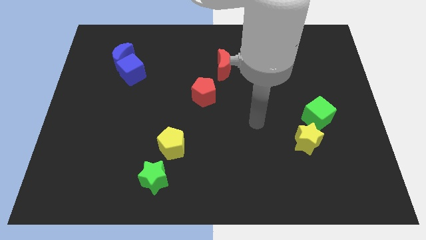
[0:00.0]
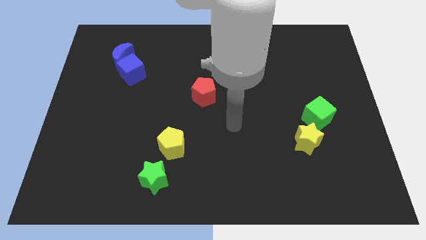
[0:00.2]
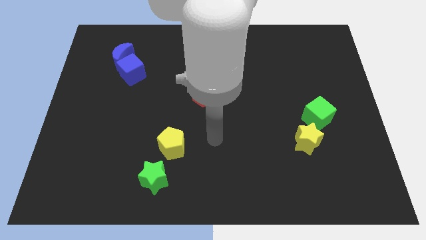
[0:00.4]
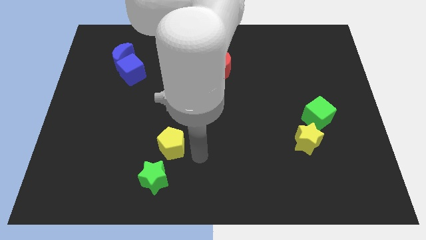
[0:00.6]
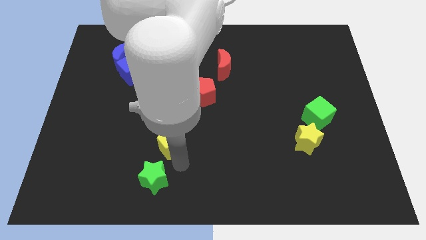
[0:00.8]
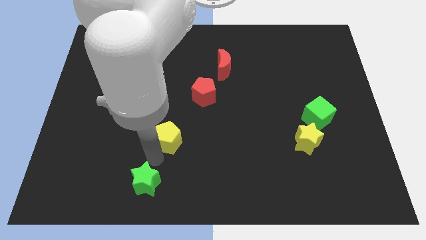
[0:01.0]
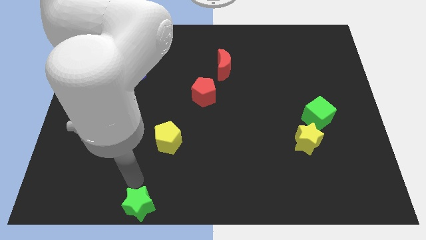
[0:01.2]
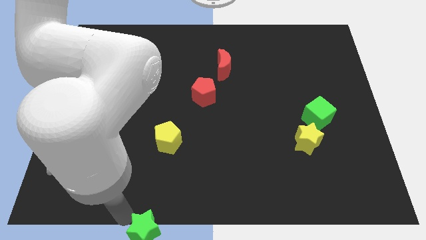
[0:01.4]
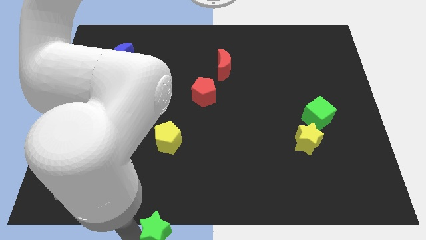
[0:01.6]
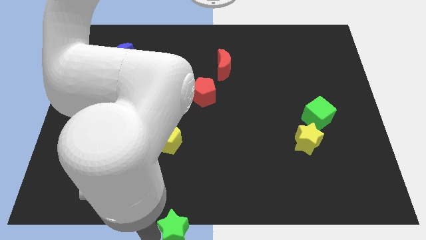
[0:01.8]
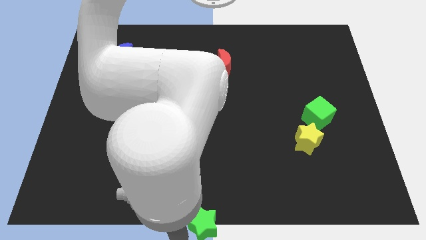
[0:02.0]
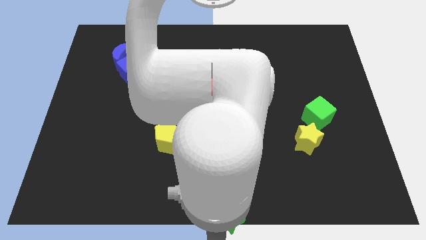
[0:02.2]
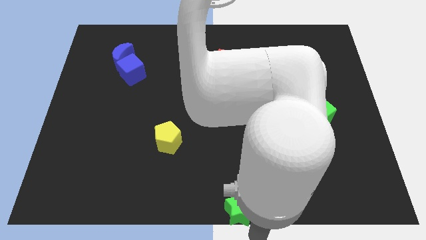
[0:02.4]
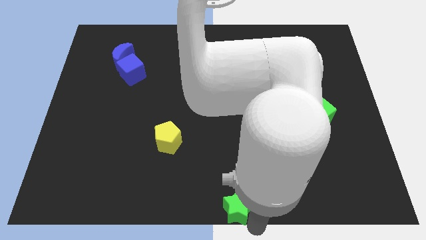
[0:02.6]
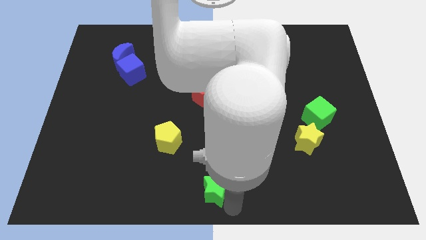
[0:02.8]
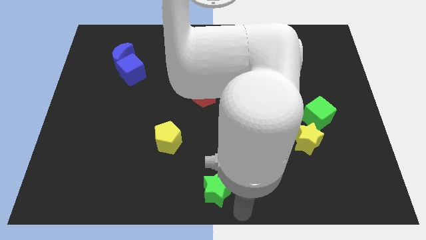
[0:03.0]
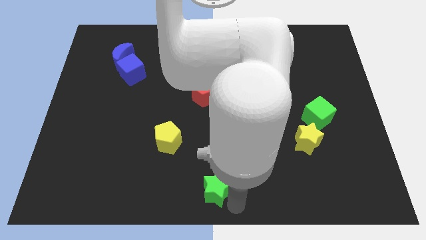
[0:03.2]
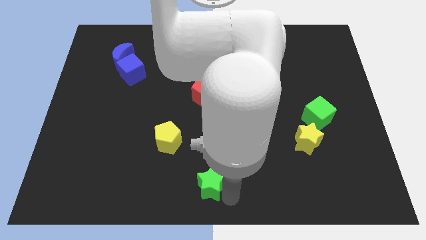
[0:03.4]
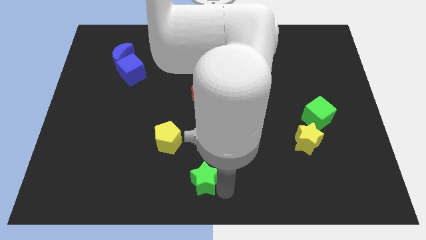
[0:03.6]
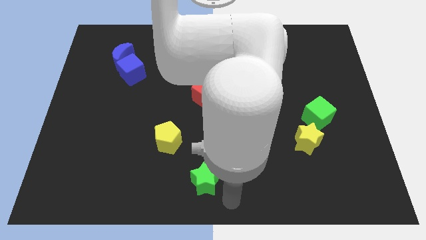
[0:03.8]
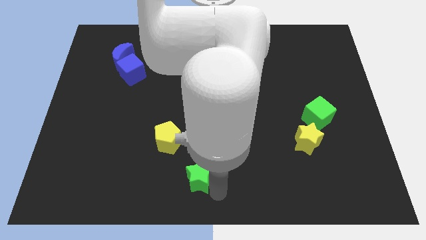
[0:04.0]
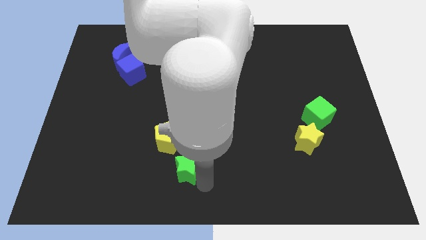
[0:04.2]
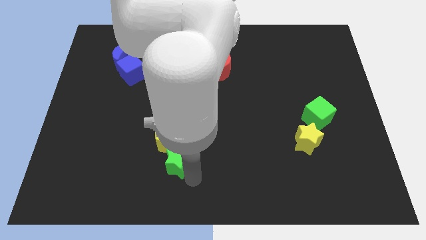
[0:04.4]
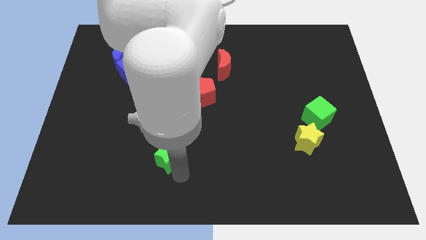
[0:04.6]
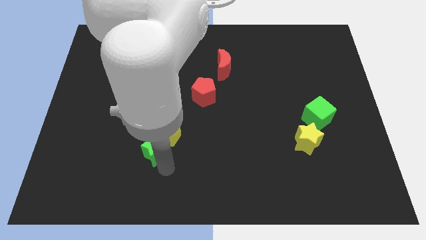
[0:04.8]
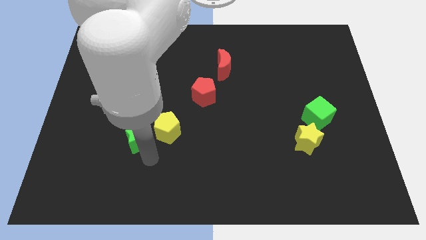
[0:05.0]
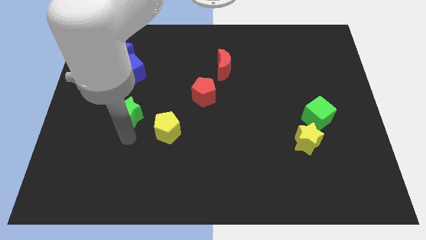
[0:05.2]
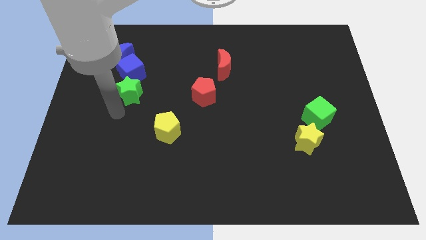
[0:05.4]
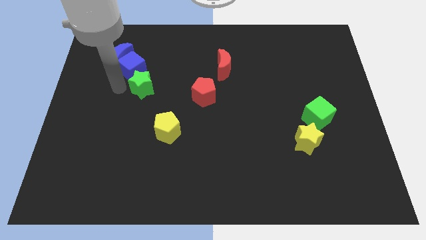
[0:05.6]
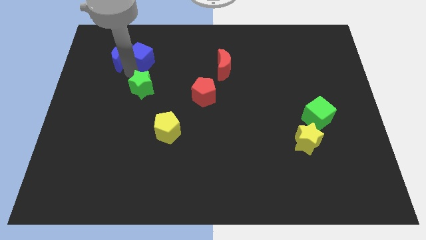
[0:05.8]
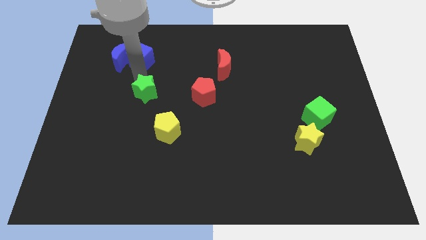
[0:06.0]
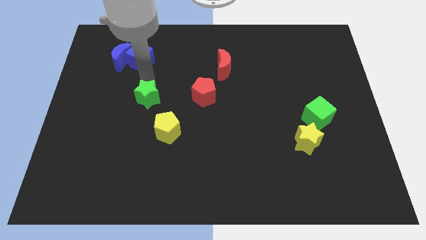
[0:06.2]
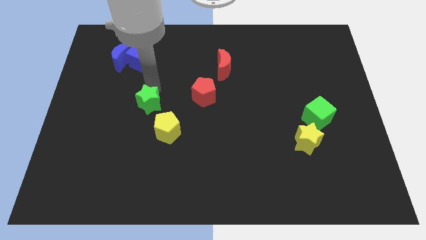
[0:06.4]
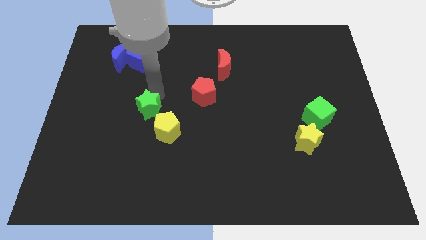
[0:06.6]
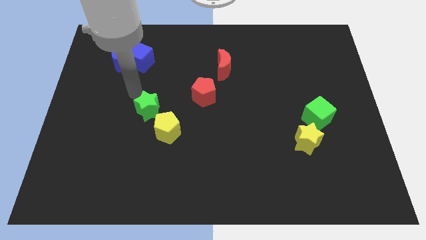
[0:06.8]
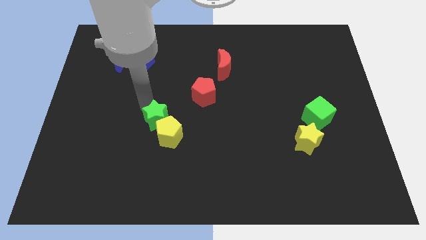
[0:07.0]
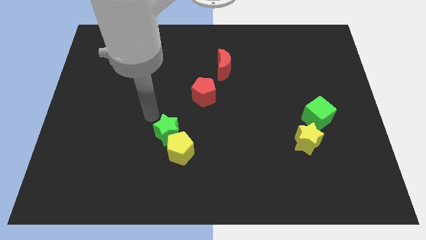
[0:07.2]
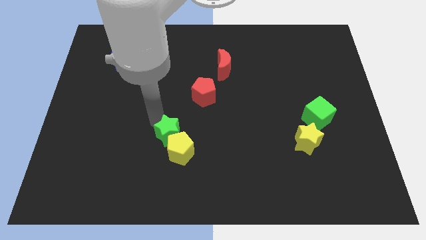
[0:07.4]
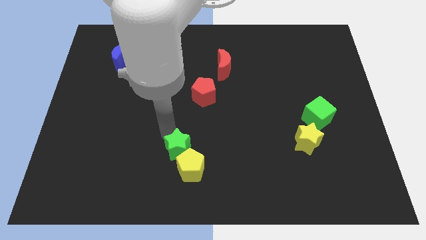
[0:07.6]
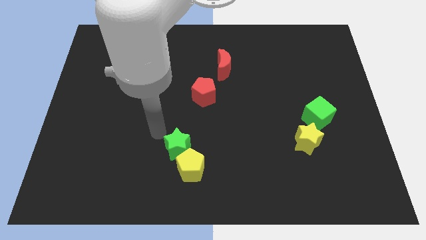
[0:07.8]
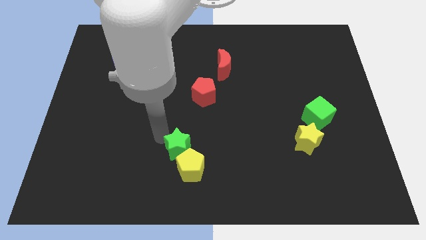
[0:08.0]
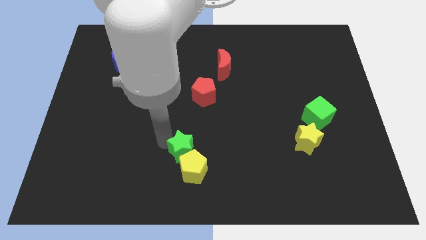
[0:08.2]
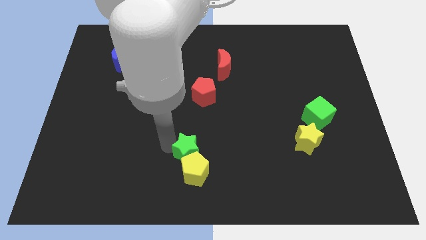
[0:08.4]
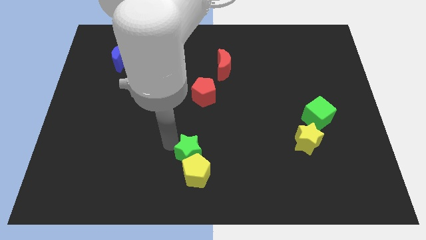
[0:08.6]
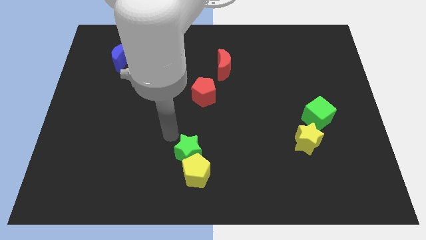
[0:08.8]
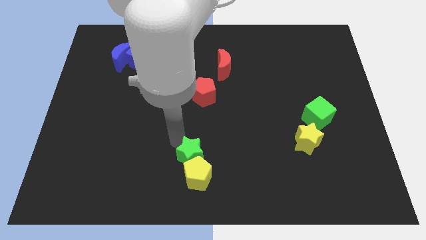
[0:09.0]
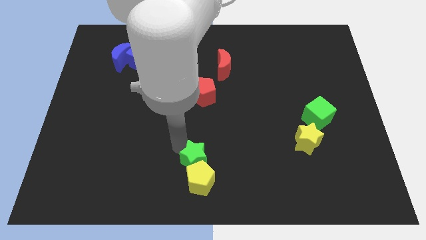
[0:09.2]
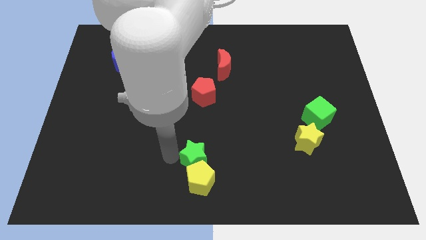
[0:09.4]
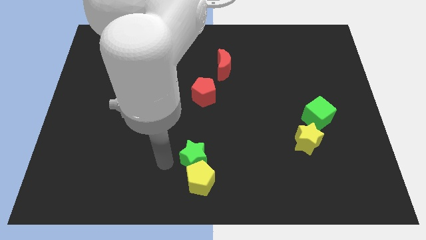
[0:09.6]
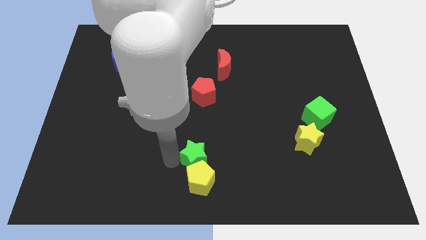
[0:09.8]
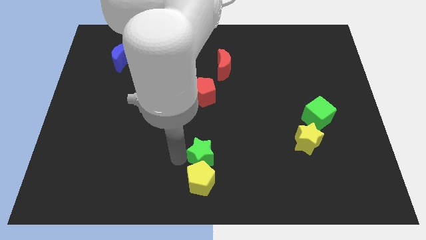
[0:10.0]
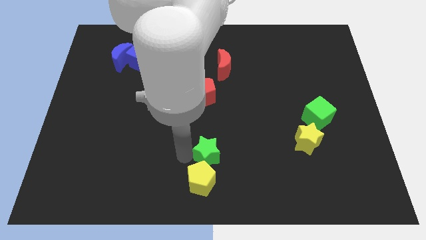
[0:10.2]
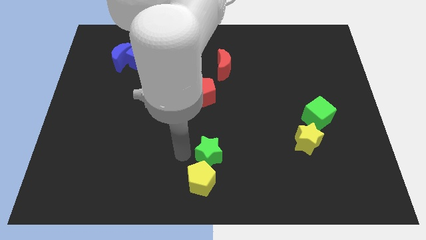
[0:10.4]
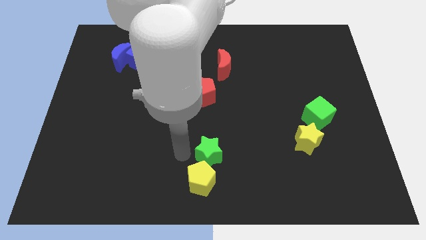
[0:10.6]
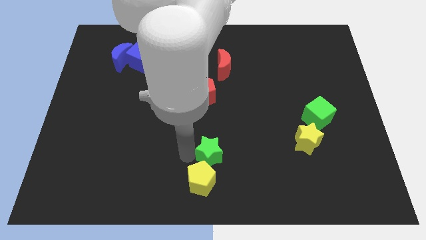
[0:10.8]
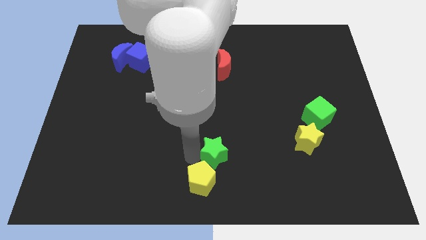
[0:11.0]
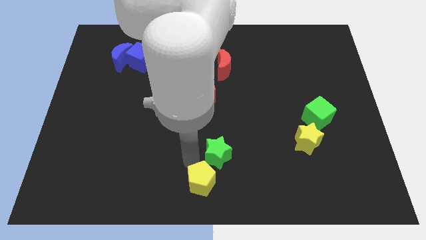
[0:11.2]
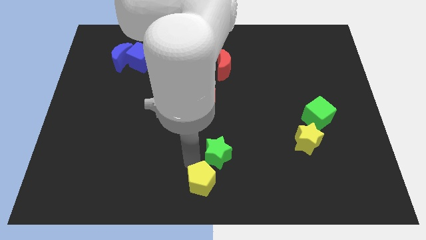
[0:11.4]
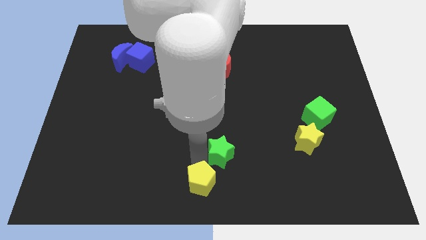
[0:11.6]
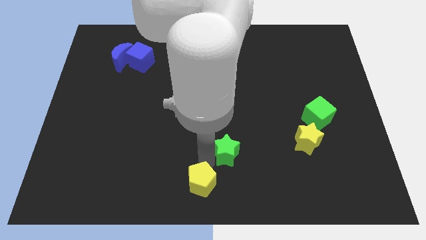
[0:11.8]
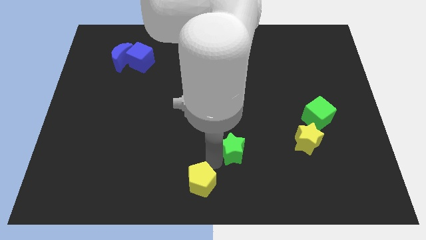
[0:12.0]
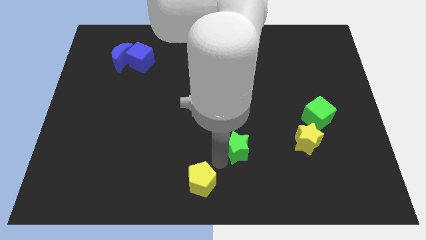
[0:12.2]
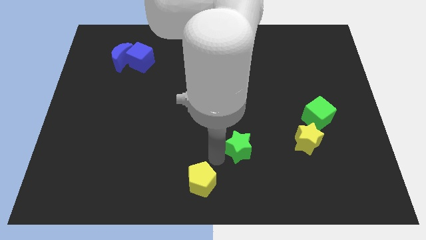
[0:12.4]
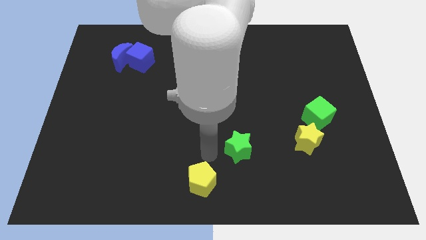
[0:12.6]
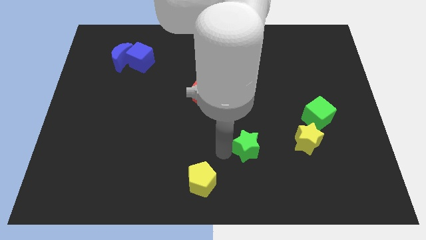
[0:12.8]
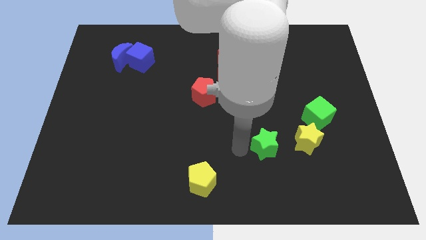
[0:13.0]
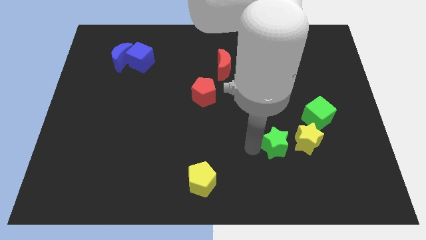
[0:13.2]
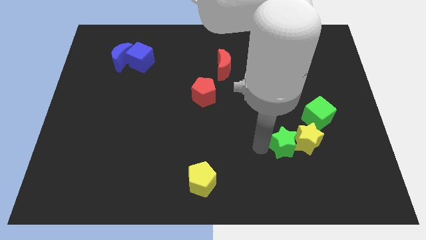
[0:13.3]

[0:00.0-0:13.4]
push the green star close to the yellow star
